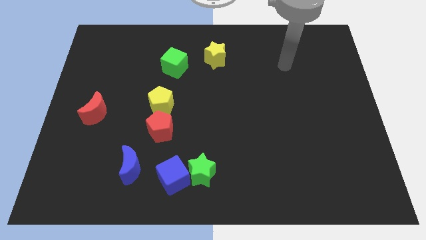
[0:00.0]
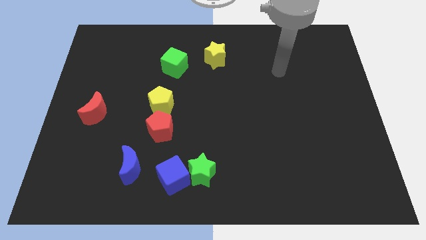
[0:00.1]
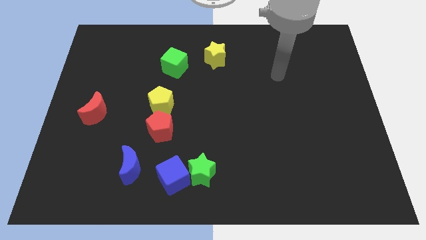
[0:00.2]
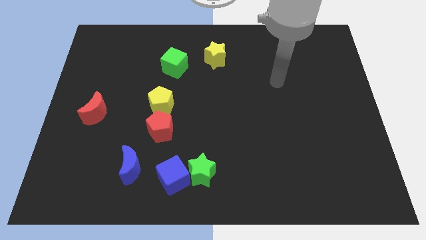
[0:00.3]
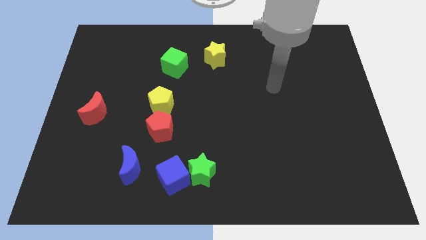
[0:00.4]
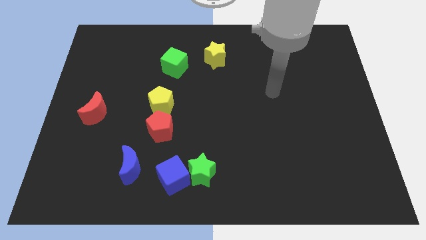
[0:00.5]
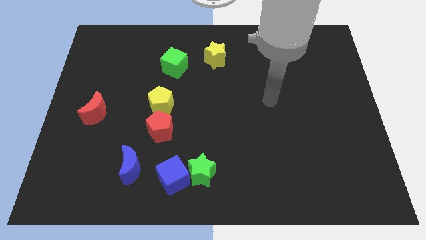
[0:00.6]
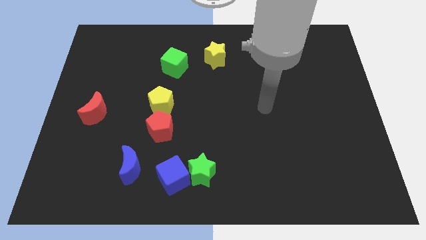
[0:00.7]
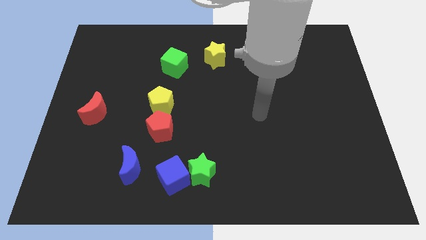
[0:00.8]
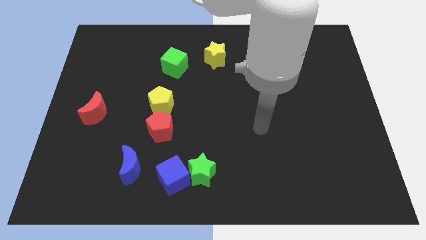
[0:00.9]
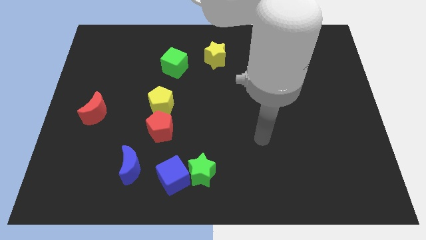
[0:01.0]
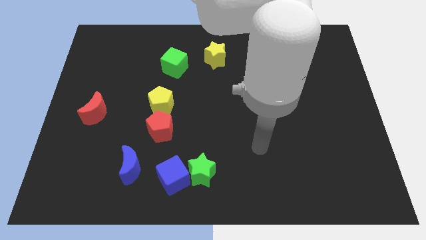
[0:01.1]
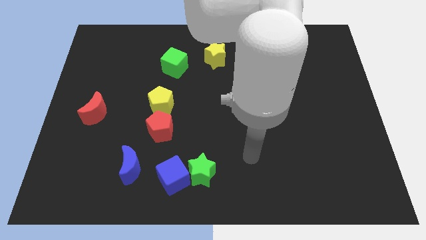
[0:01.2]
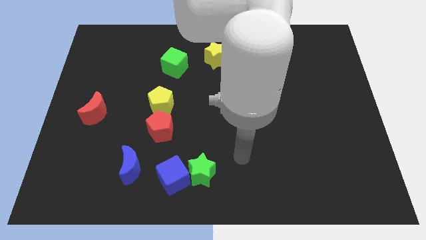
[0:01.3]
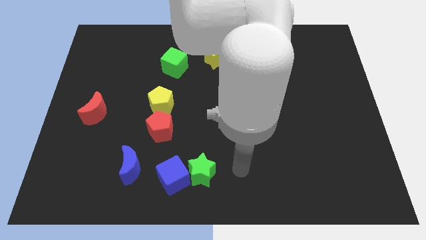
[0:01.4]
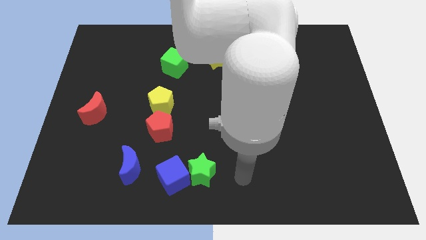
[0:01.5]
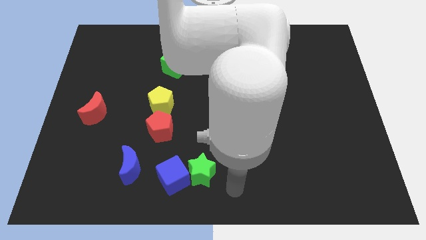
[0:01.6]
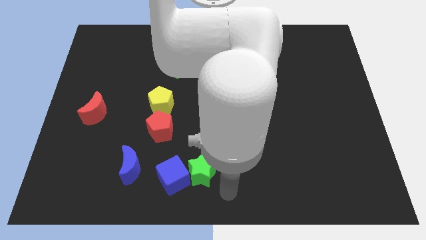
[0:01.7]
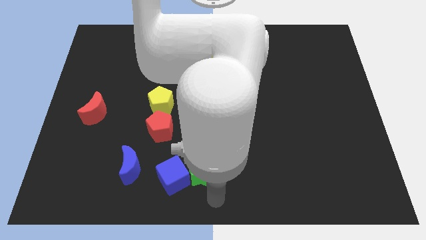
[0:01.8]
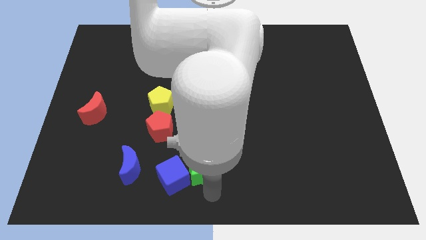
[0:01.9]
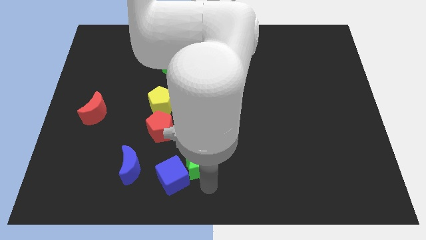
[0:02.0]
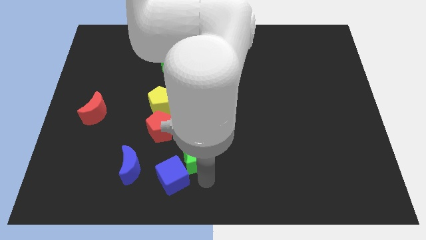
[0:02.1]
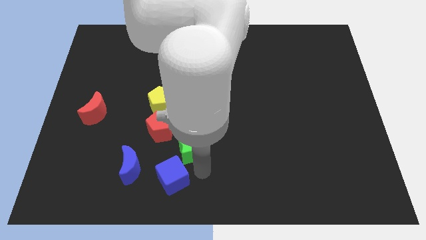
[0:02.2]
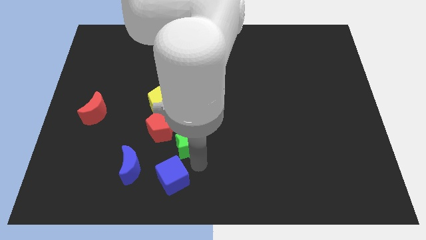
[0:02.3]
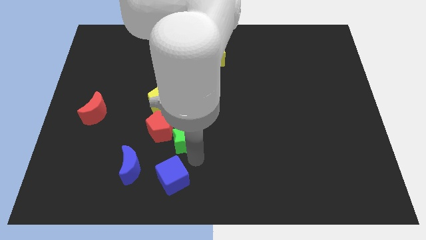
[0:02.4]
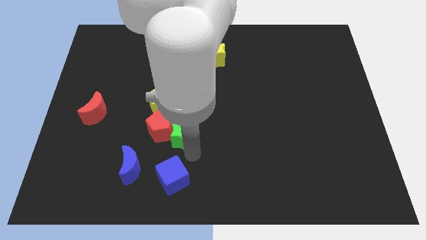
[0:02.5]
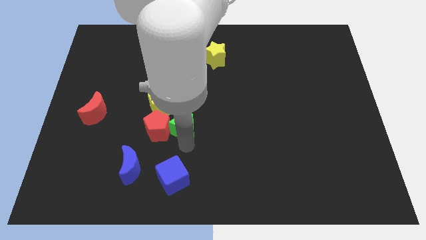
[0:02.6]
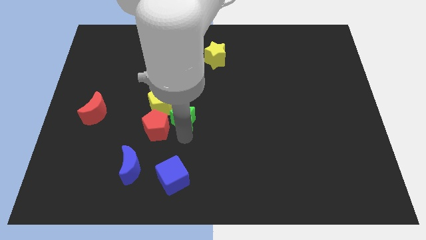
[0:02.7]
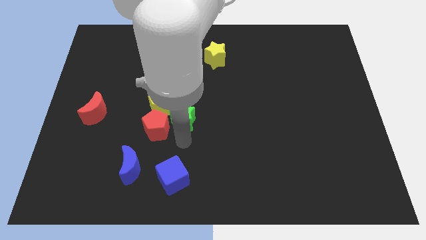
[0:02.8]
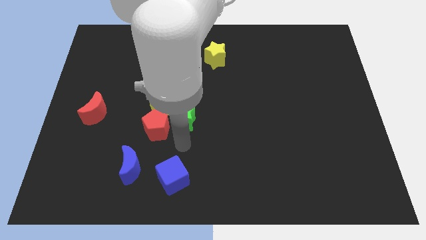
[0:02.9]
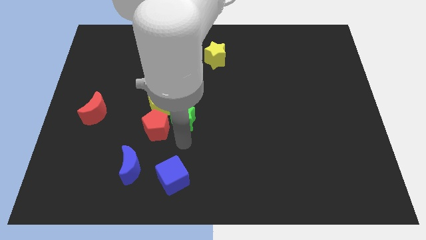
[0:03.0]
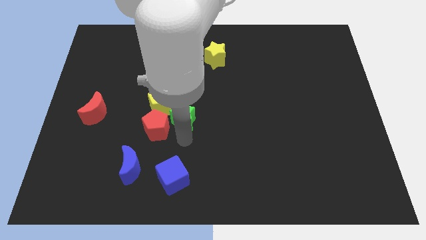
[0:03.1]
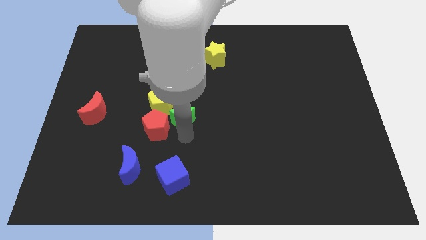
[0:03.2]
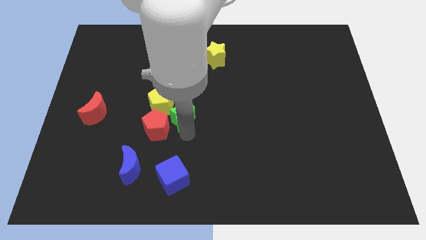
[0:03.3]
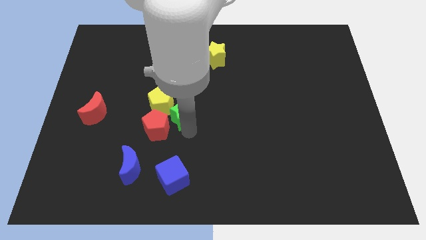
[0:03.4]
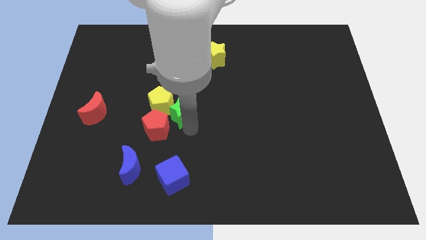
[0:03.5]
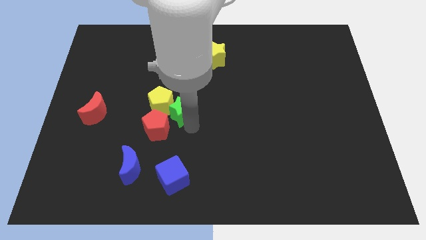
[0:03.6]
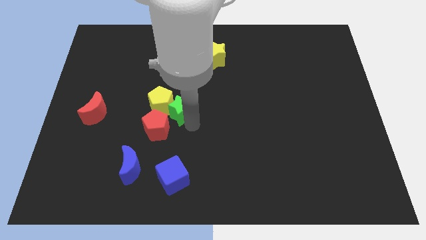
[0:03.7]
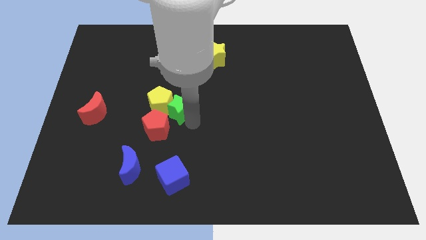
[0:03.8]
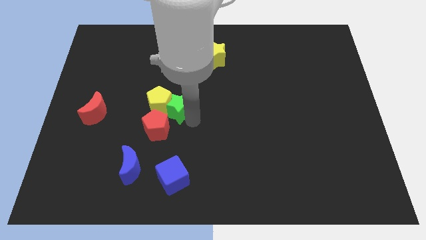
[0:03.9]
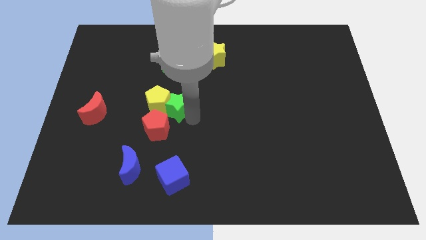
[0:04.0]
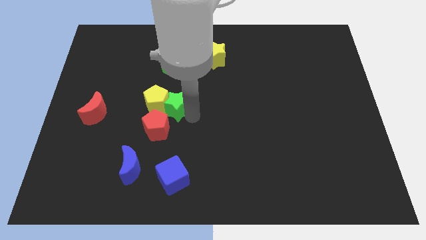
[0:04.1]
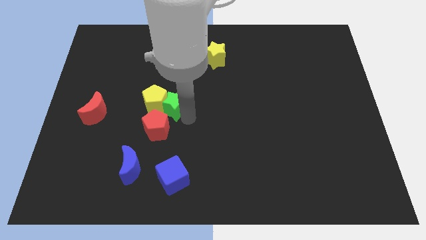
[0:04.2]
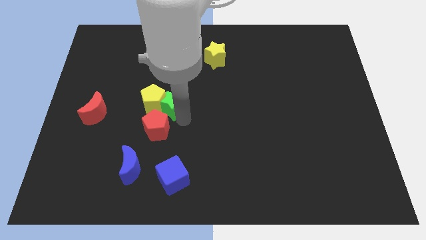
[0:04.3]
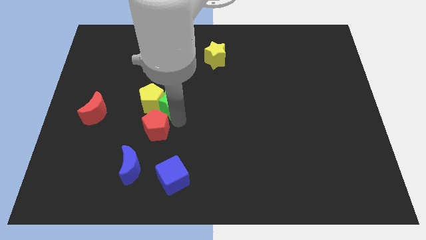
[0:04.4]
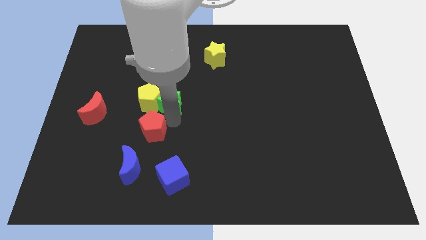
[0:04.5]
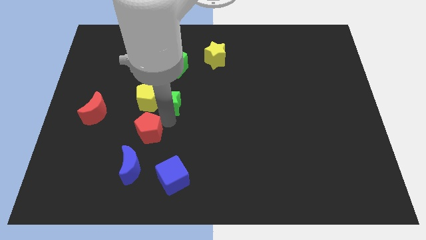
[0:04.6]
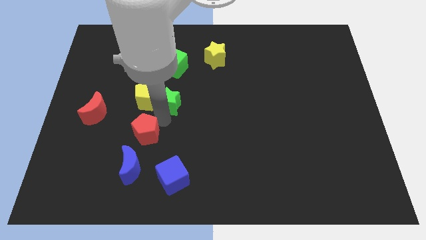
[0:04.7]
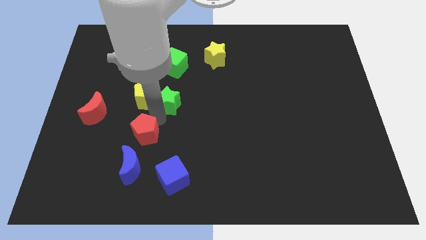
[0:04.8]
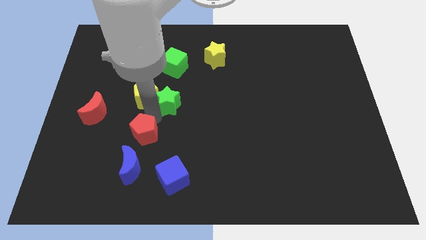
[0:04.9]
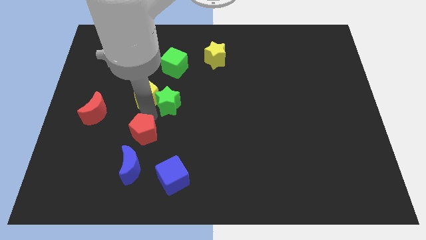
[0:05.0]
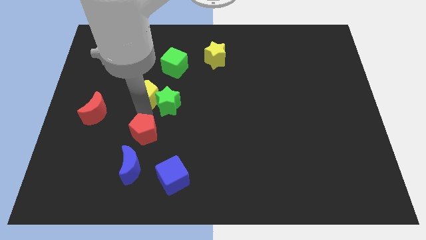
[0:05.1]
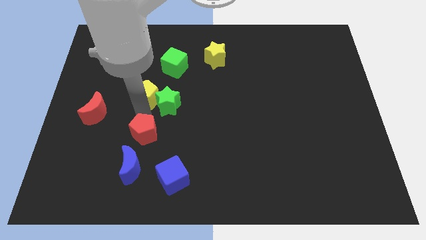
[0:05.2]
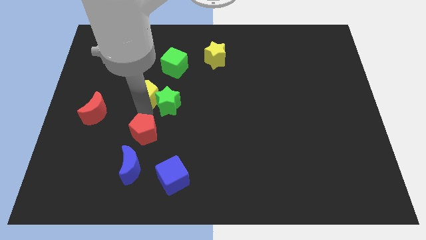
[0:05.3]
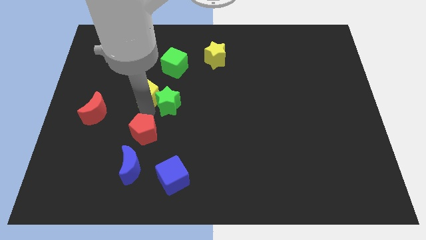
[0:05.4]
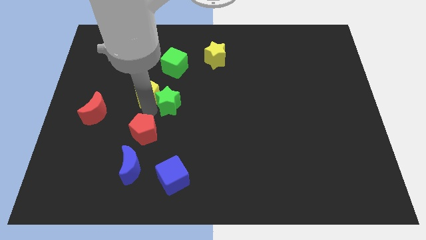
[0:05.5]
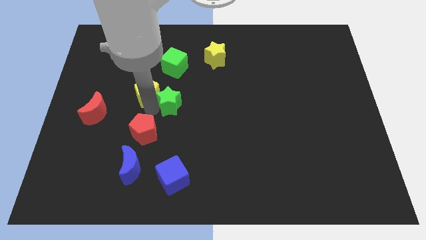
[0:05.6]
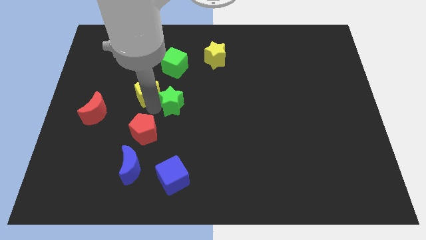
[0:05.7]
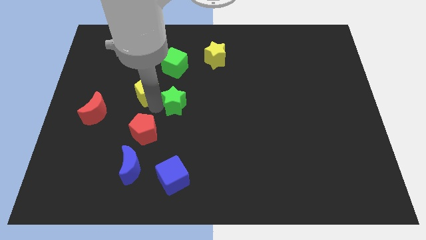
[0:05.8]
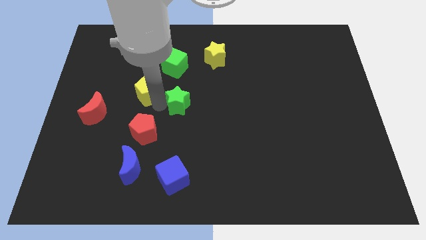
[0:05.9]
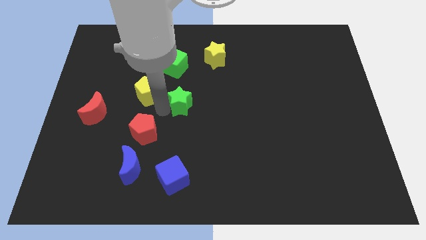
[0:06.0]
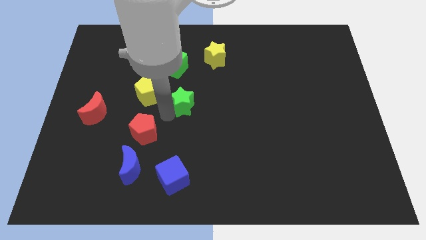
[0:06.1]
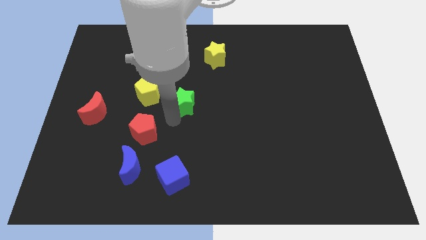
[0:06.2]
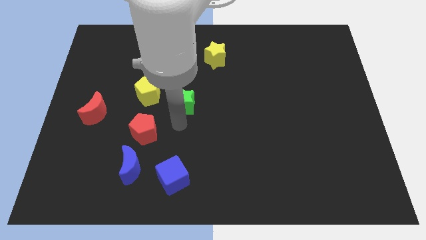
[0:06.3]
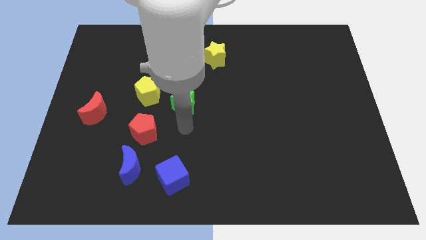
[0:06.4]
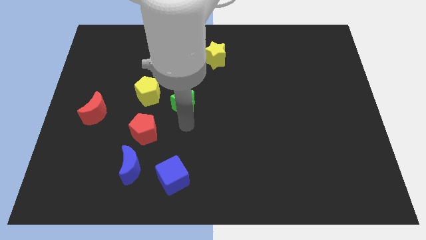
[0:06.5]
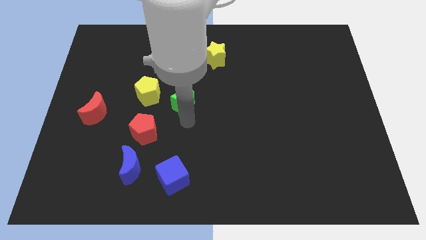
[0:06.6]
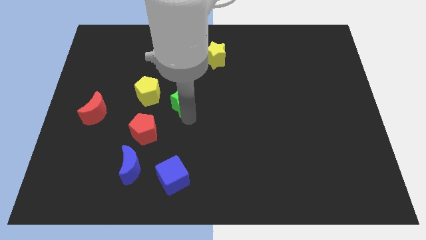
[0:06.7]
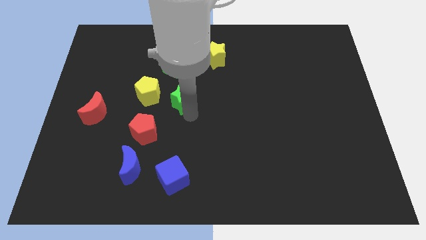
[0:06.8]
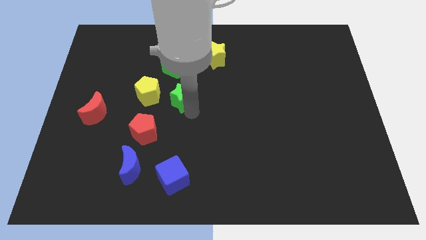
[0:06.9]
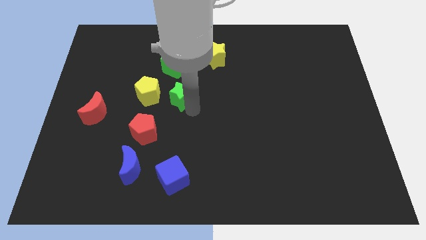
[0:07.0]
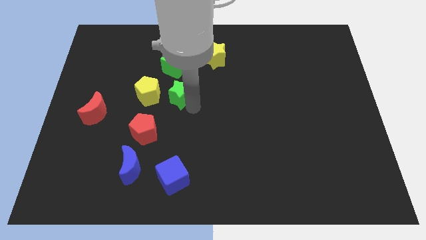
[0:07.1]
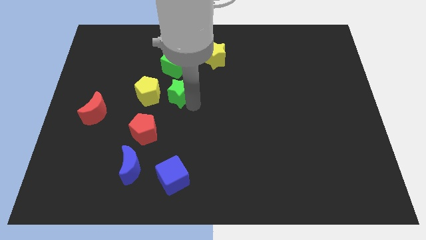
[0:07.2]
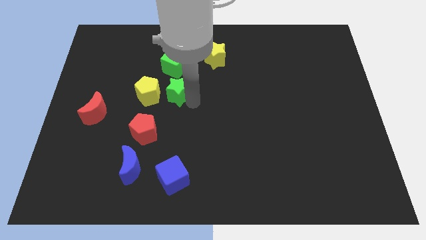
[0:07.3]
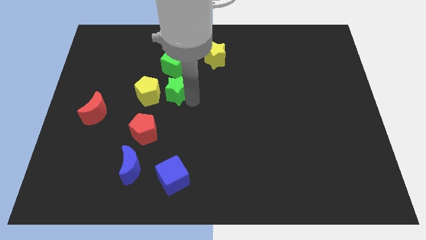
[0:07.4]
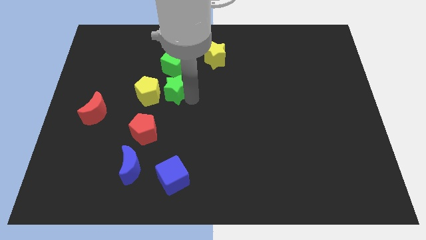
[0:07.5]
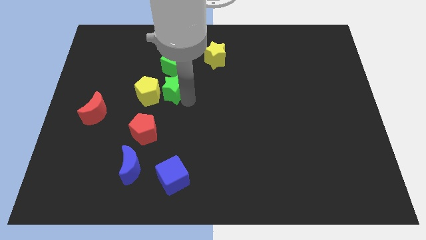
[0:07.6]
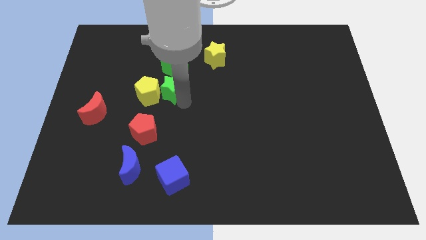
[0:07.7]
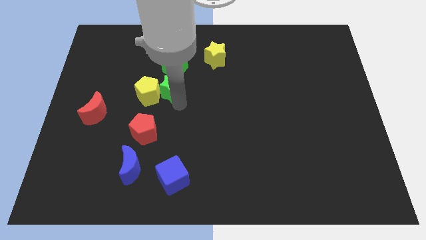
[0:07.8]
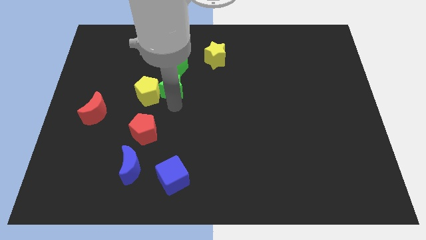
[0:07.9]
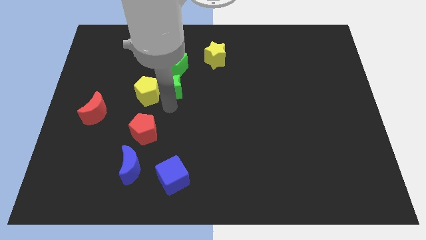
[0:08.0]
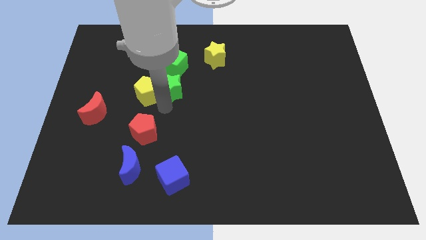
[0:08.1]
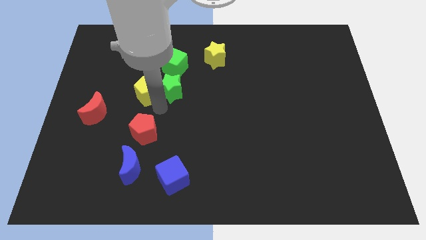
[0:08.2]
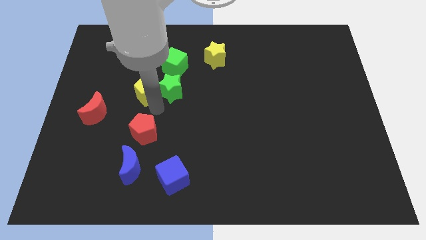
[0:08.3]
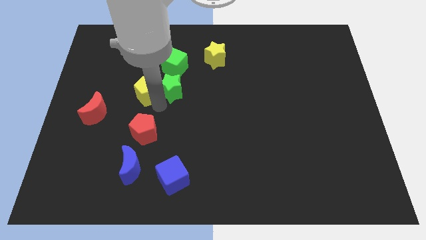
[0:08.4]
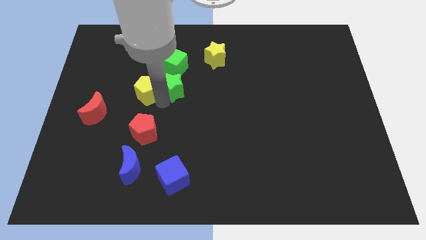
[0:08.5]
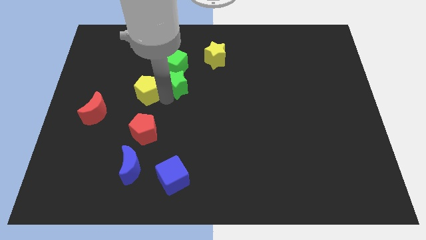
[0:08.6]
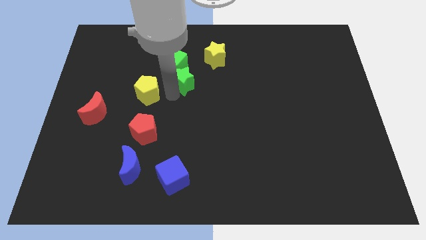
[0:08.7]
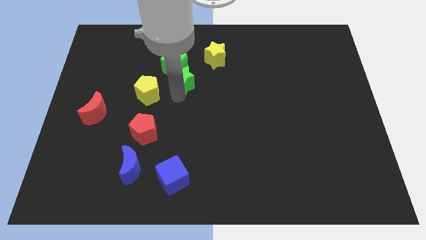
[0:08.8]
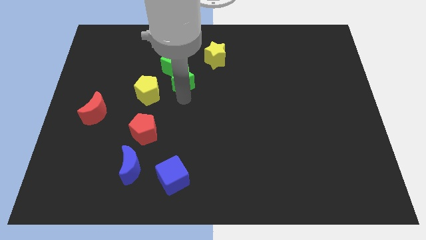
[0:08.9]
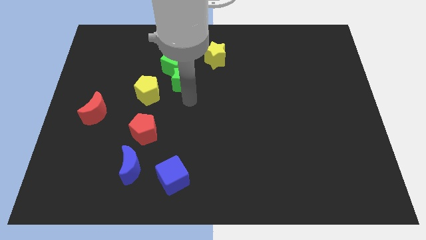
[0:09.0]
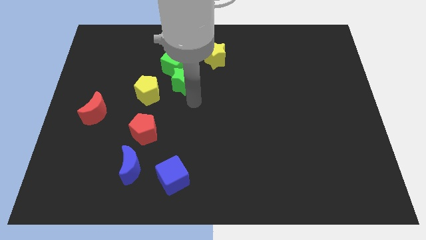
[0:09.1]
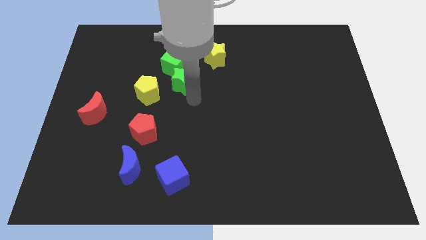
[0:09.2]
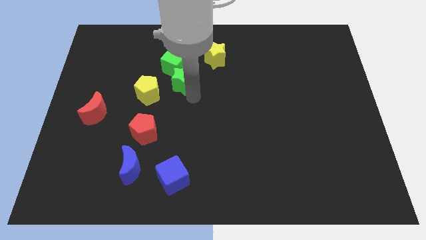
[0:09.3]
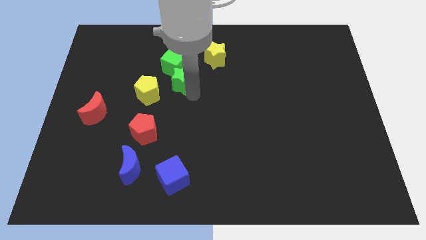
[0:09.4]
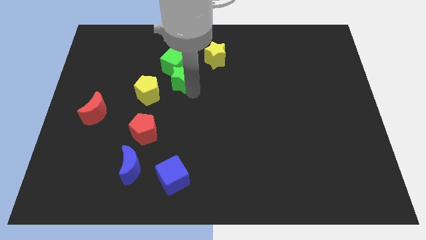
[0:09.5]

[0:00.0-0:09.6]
move the green star to the green cube
